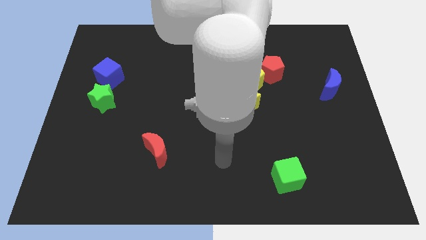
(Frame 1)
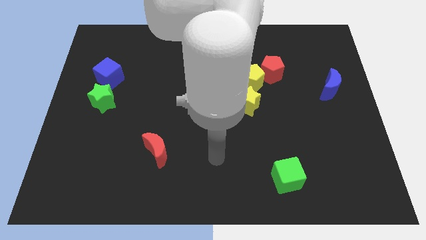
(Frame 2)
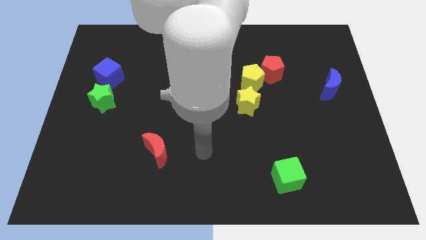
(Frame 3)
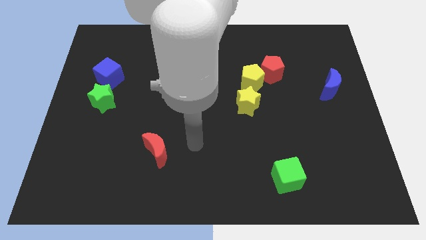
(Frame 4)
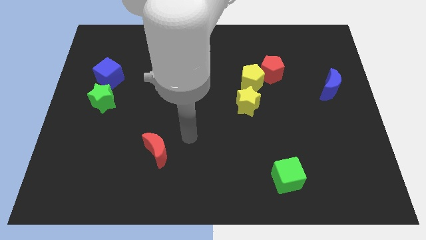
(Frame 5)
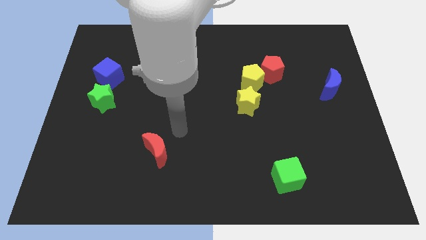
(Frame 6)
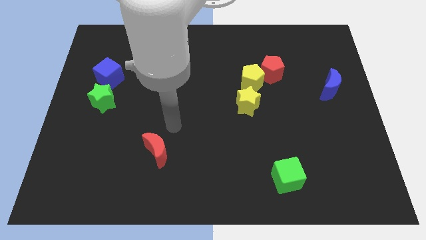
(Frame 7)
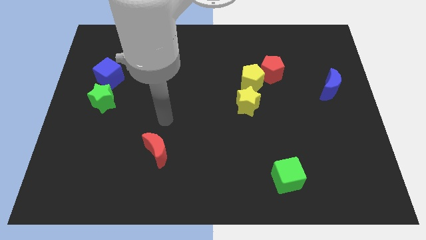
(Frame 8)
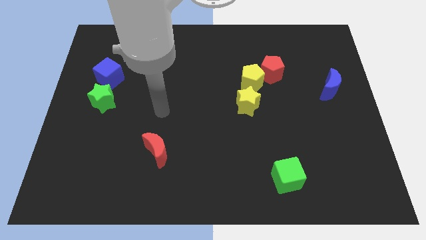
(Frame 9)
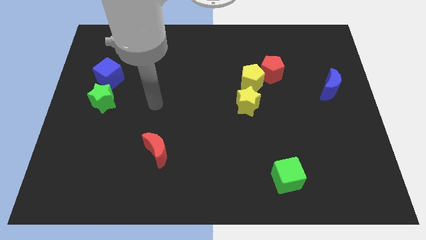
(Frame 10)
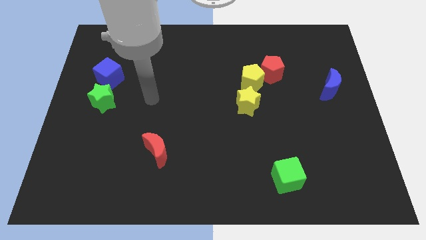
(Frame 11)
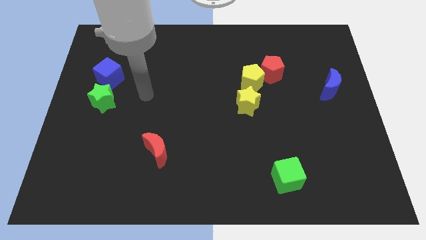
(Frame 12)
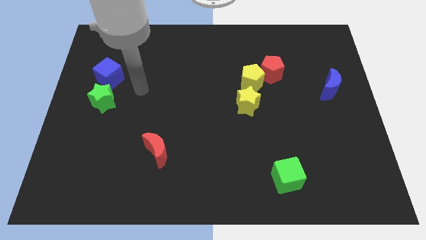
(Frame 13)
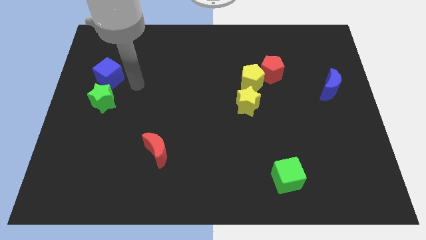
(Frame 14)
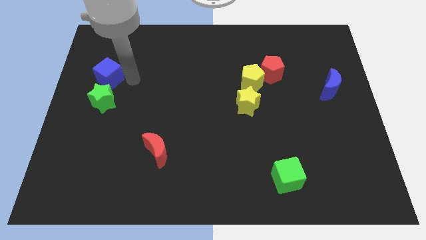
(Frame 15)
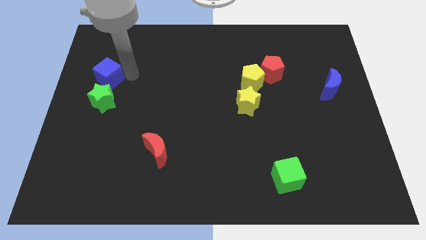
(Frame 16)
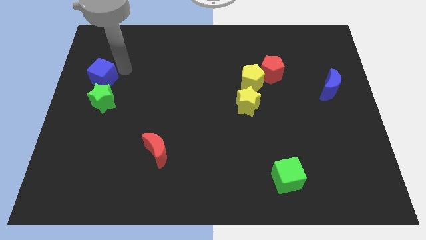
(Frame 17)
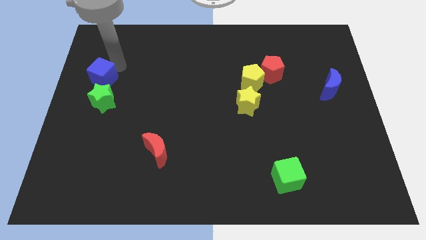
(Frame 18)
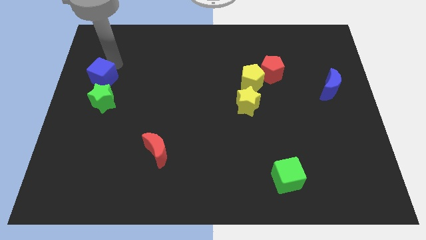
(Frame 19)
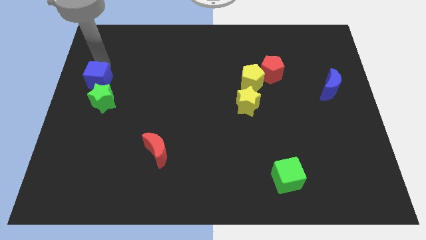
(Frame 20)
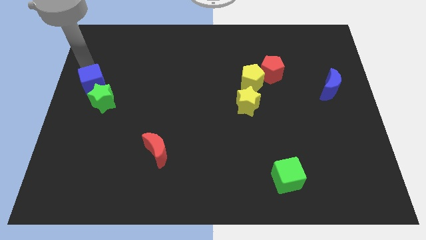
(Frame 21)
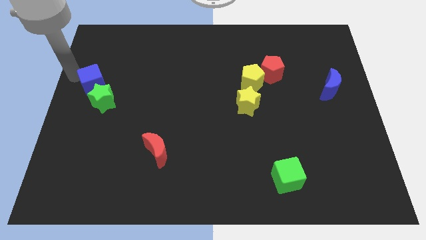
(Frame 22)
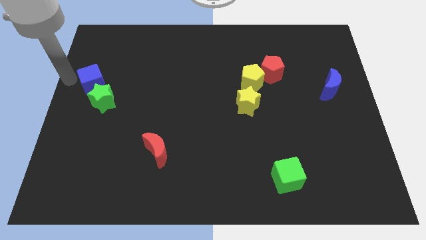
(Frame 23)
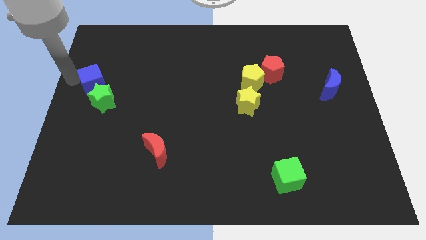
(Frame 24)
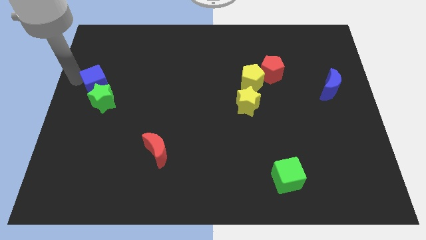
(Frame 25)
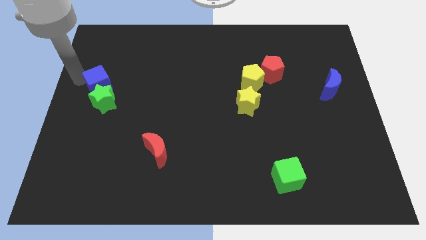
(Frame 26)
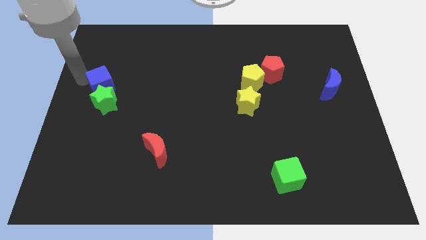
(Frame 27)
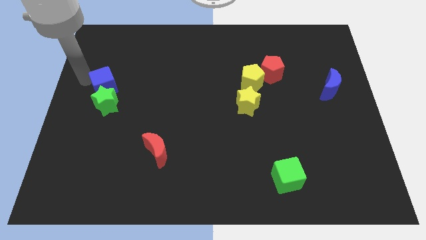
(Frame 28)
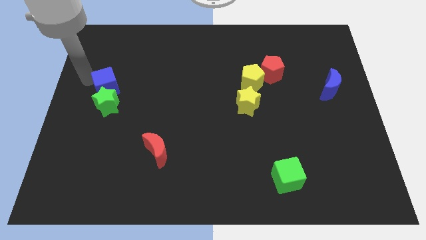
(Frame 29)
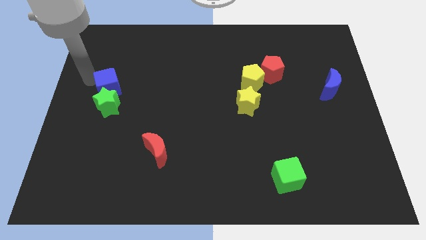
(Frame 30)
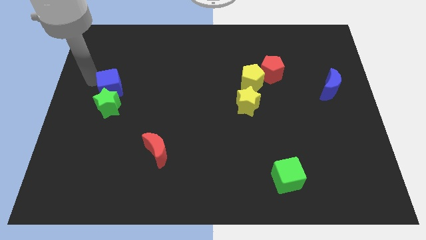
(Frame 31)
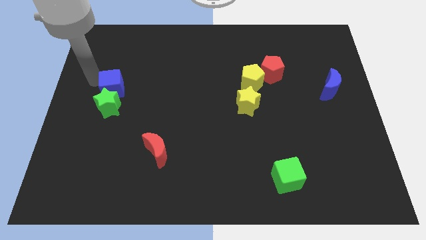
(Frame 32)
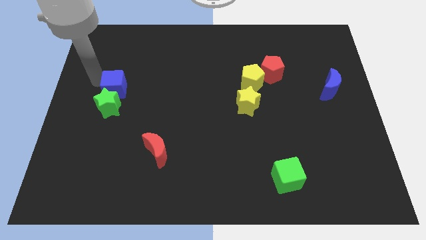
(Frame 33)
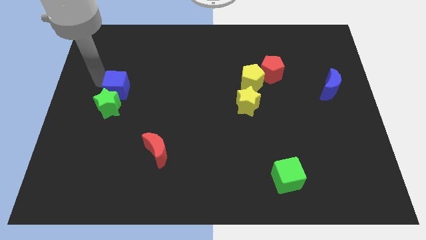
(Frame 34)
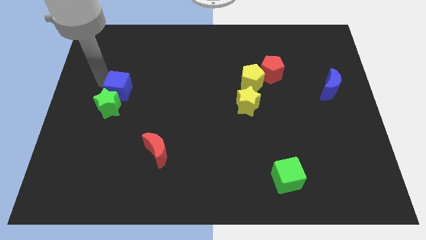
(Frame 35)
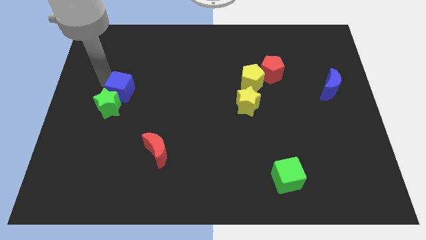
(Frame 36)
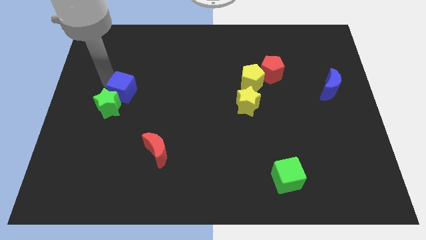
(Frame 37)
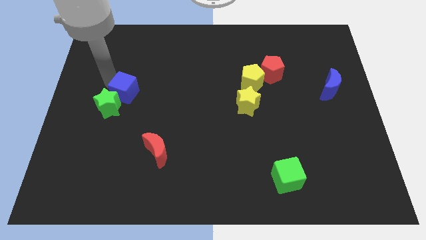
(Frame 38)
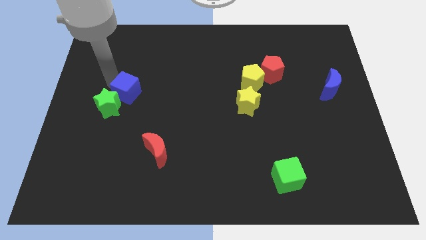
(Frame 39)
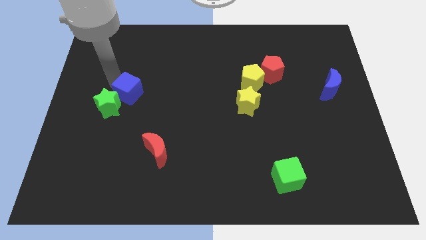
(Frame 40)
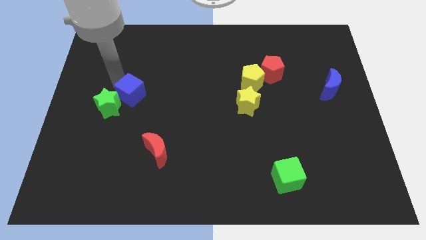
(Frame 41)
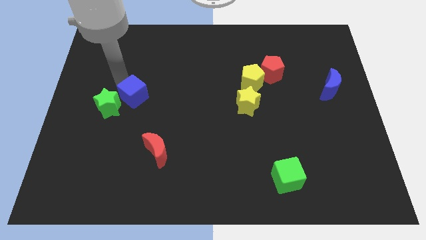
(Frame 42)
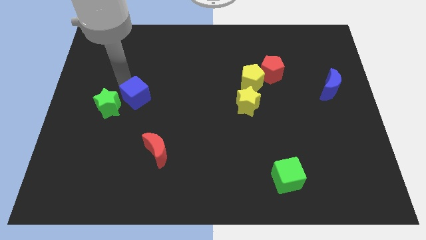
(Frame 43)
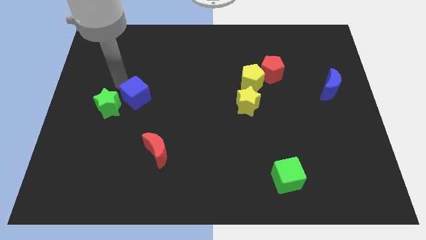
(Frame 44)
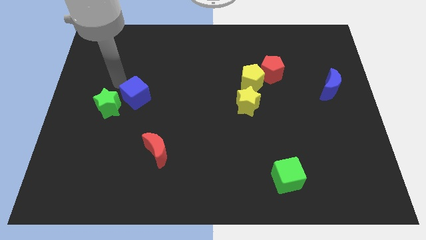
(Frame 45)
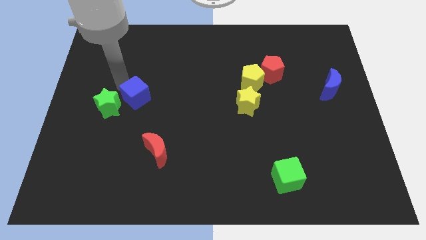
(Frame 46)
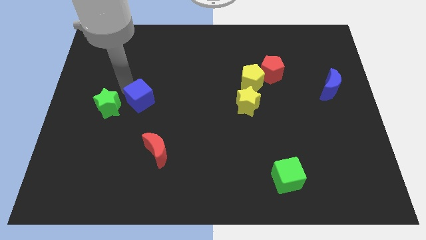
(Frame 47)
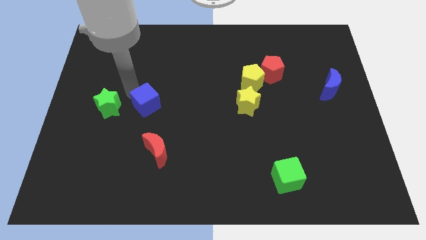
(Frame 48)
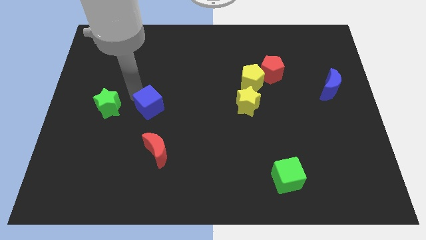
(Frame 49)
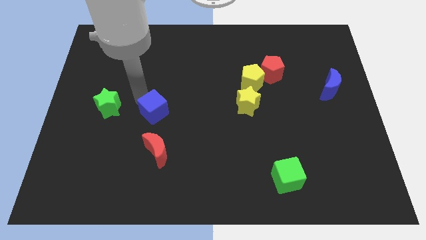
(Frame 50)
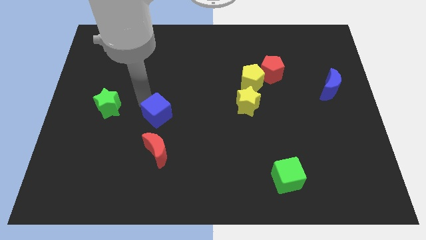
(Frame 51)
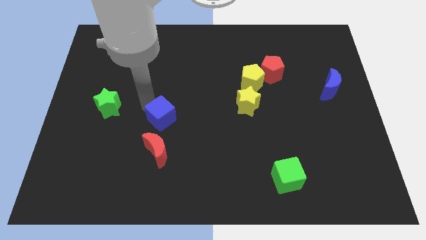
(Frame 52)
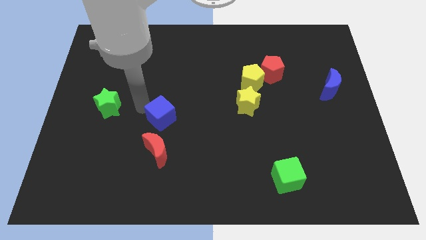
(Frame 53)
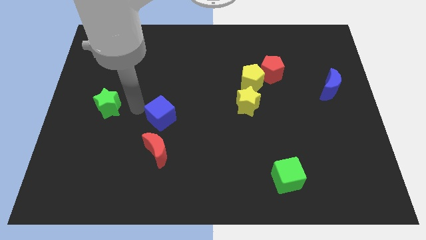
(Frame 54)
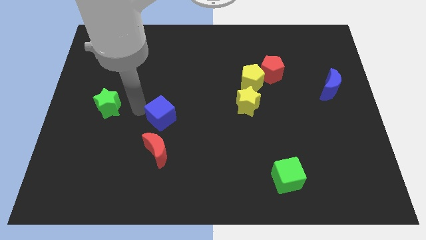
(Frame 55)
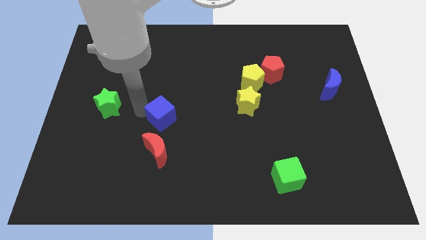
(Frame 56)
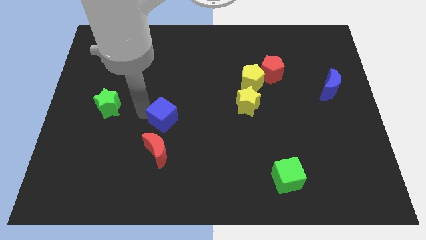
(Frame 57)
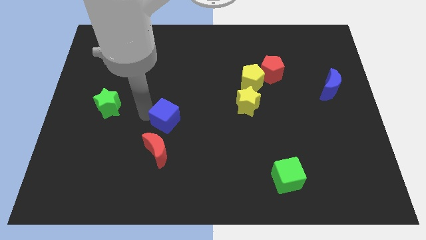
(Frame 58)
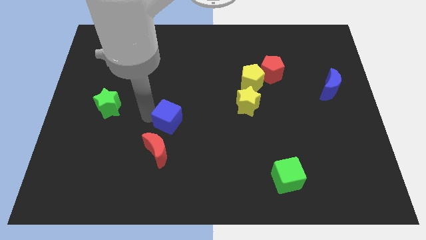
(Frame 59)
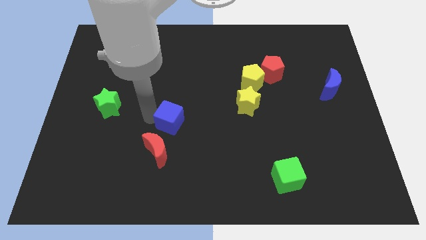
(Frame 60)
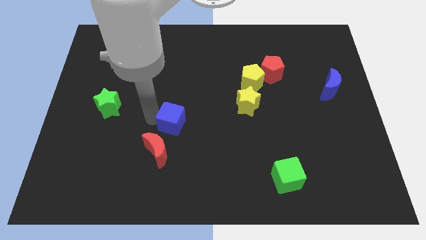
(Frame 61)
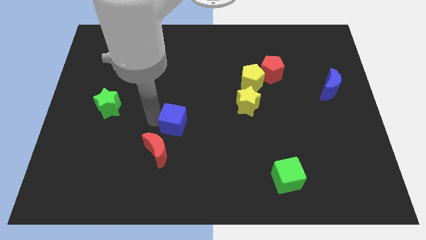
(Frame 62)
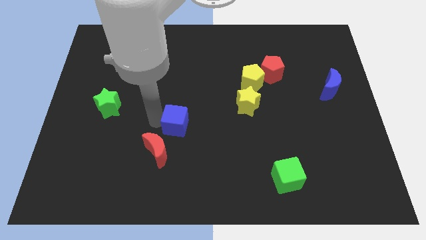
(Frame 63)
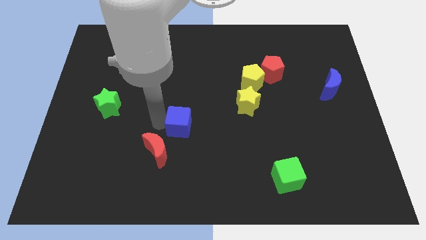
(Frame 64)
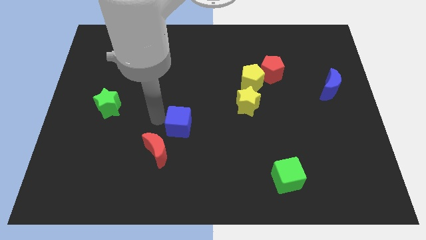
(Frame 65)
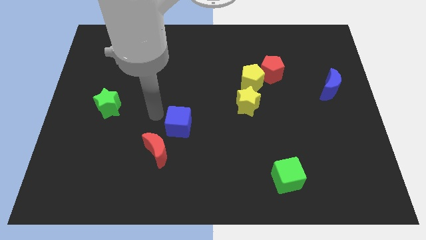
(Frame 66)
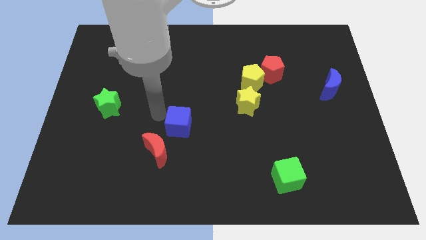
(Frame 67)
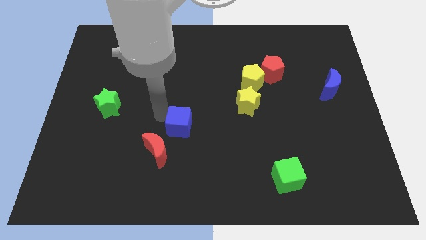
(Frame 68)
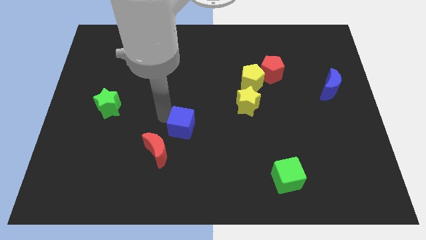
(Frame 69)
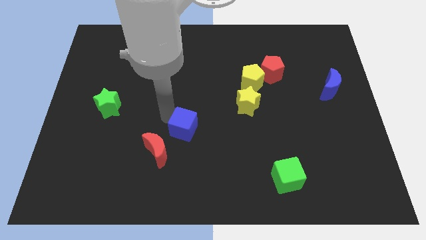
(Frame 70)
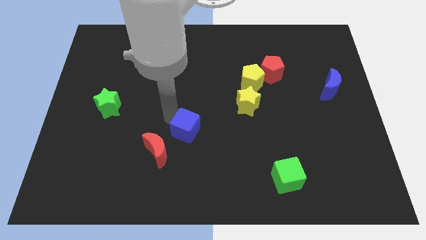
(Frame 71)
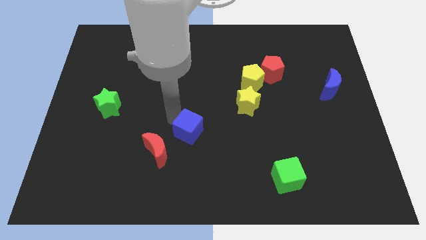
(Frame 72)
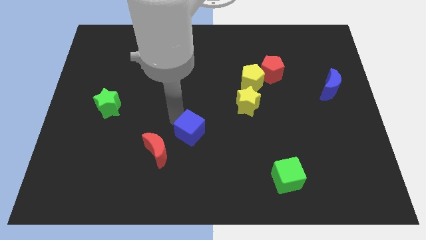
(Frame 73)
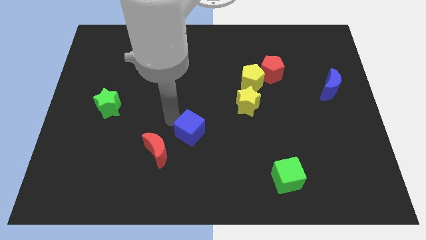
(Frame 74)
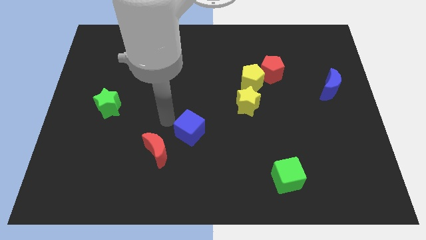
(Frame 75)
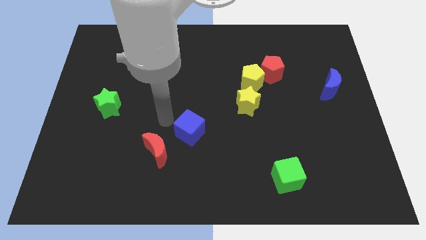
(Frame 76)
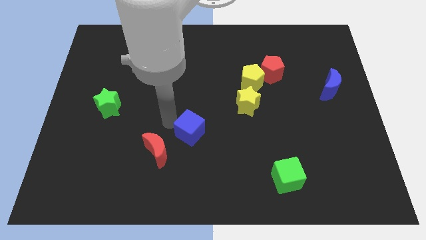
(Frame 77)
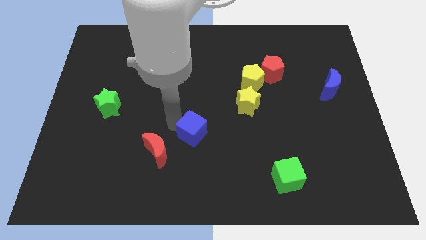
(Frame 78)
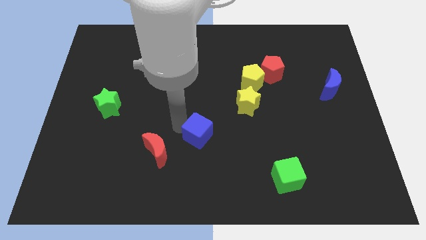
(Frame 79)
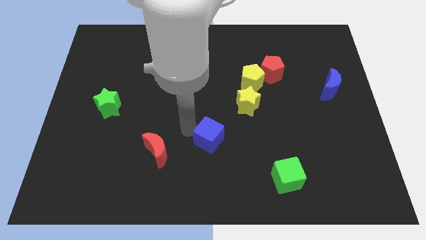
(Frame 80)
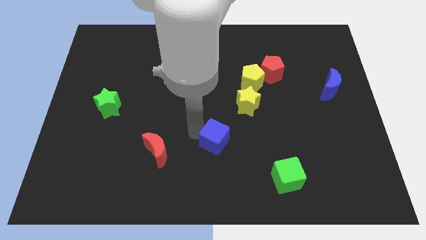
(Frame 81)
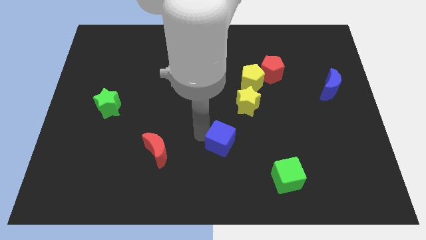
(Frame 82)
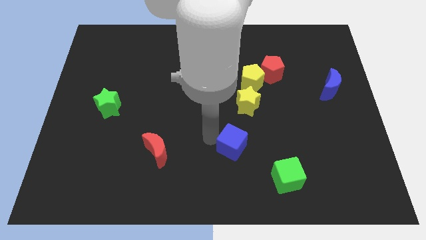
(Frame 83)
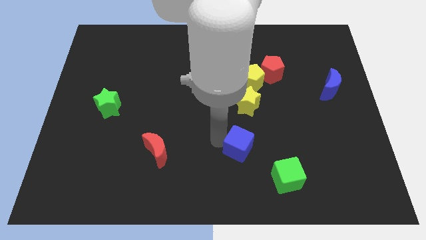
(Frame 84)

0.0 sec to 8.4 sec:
put the blue cube to the top left side of the green cube
